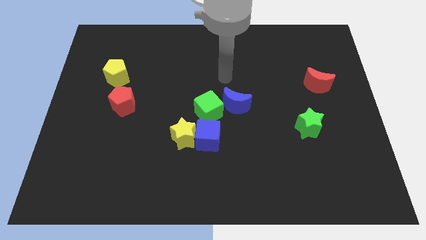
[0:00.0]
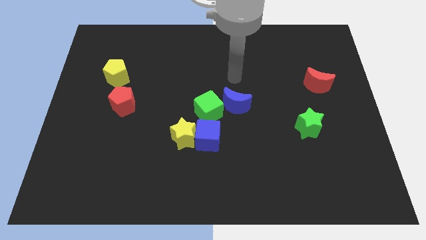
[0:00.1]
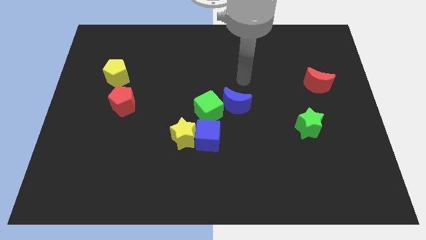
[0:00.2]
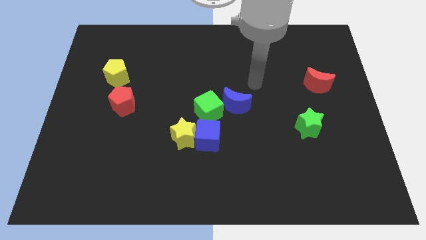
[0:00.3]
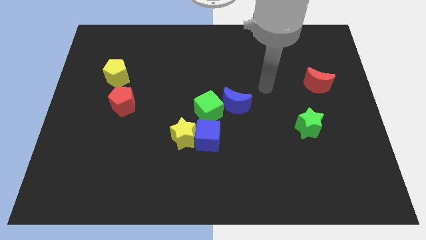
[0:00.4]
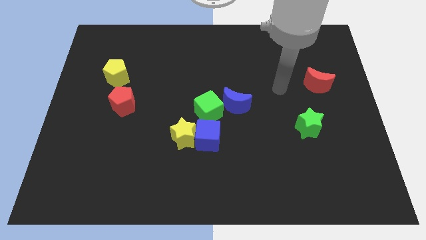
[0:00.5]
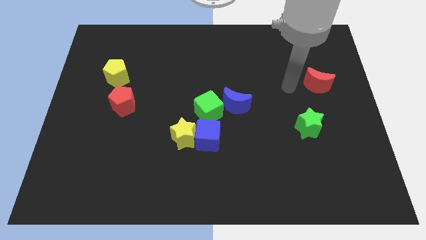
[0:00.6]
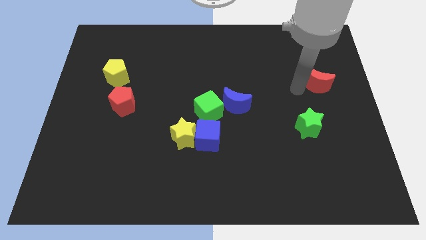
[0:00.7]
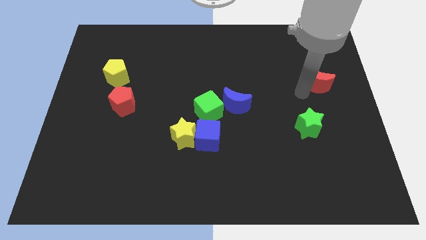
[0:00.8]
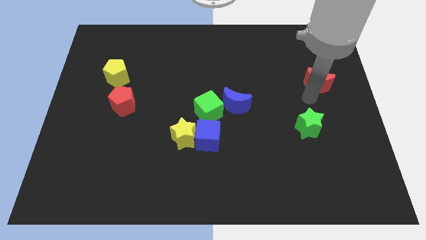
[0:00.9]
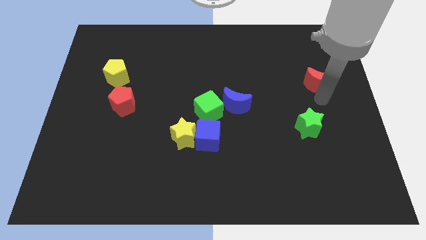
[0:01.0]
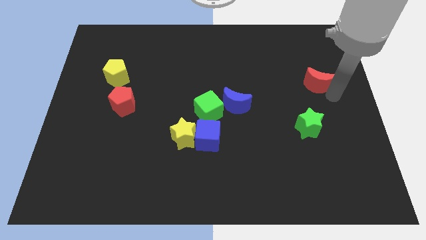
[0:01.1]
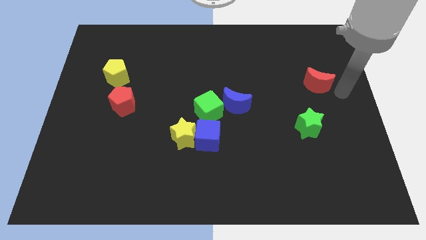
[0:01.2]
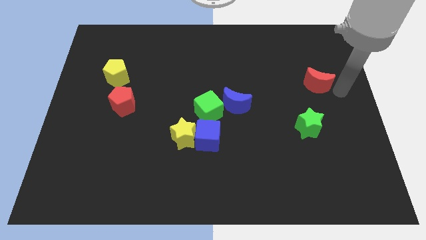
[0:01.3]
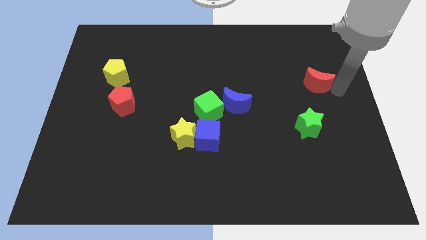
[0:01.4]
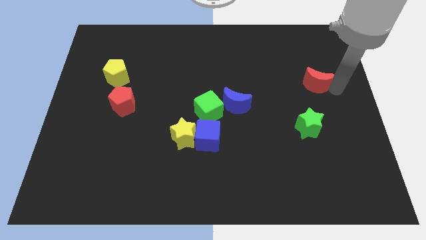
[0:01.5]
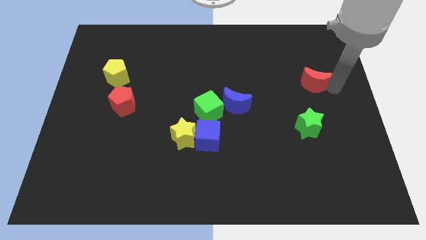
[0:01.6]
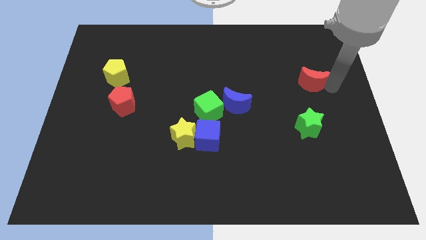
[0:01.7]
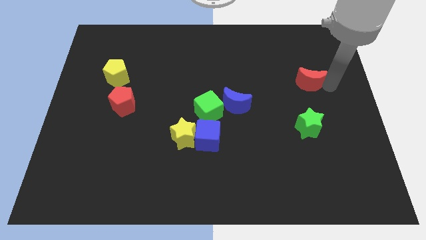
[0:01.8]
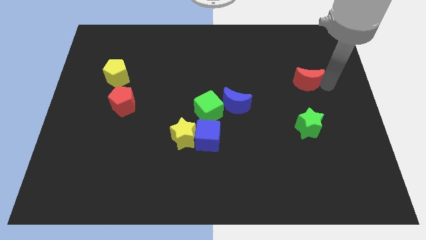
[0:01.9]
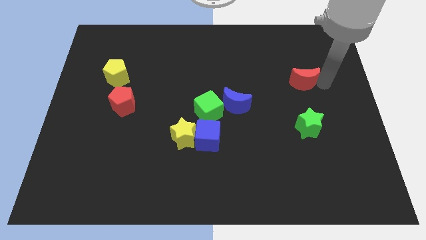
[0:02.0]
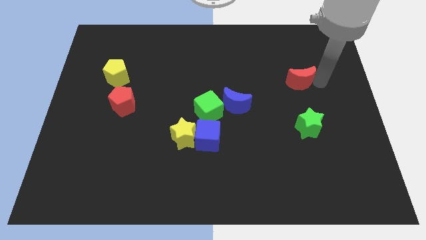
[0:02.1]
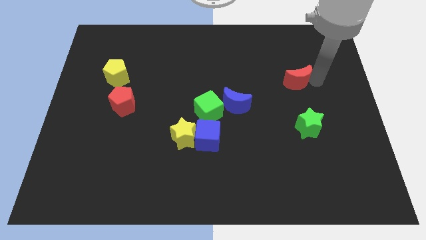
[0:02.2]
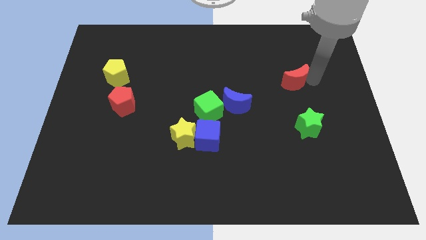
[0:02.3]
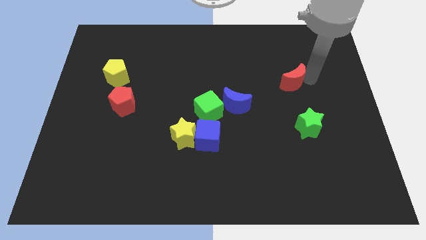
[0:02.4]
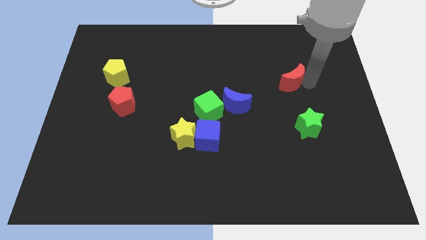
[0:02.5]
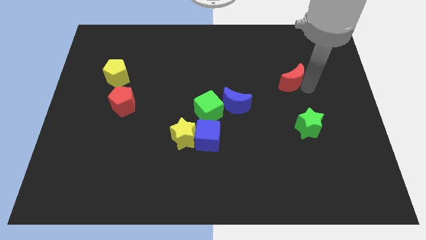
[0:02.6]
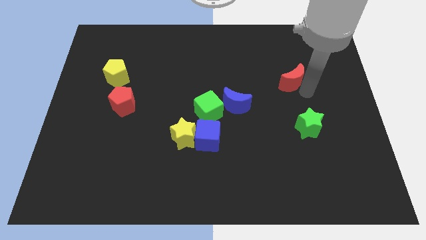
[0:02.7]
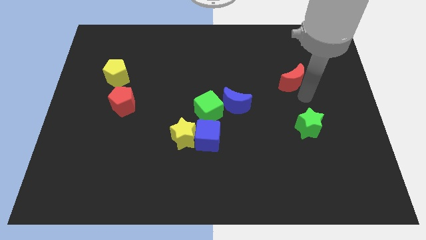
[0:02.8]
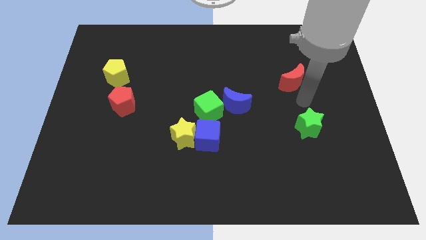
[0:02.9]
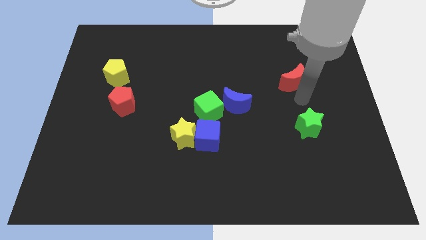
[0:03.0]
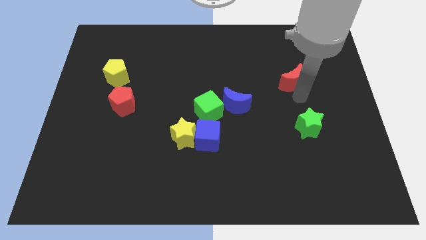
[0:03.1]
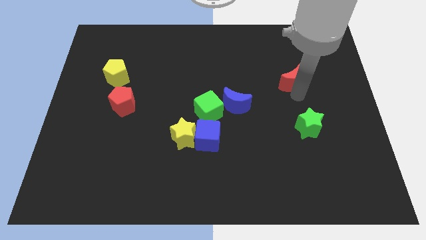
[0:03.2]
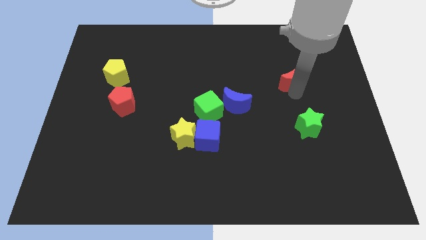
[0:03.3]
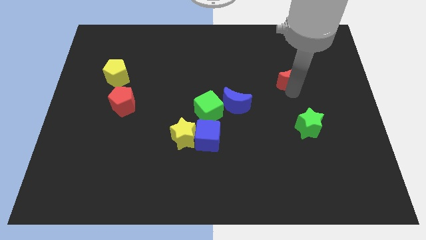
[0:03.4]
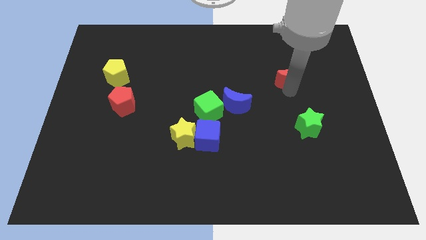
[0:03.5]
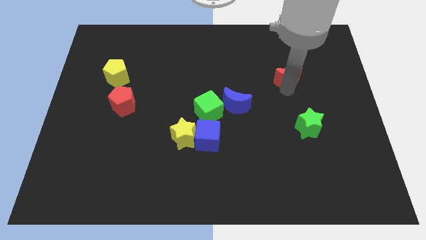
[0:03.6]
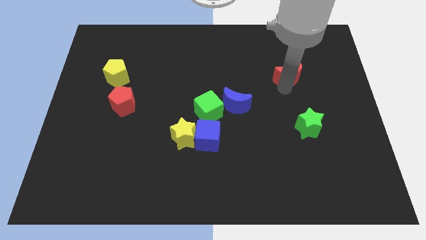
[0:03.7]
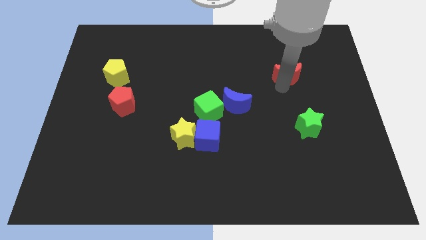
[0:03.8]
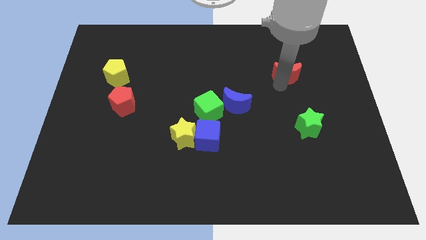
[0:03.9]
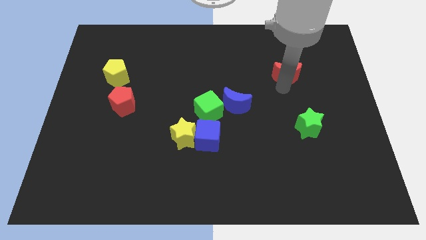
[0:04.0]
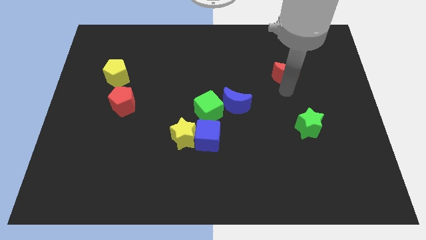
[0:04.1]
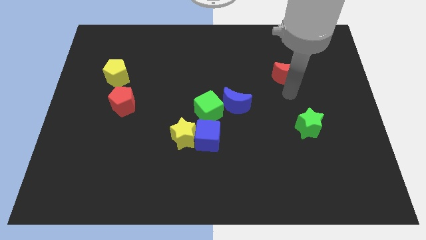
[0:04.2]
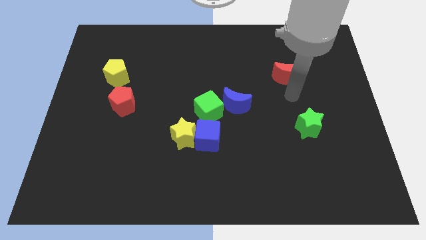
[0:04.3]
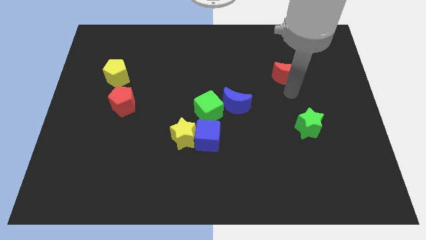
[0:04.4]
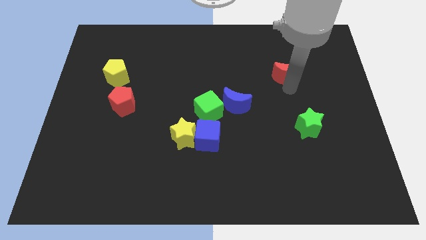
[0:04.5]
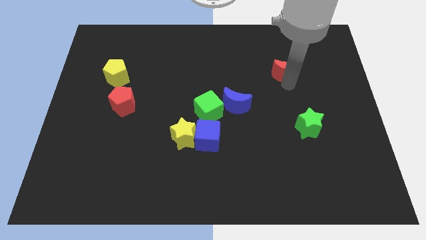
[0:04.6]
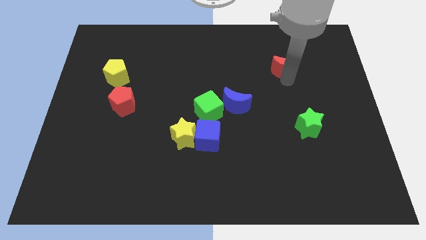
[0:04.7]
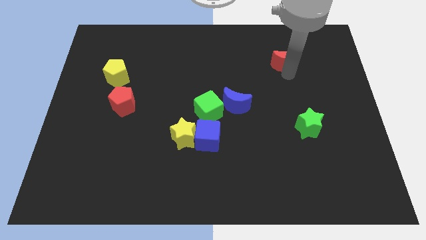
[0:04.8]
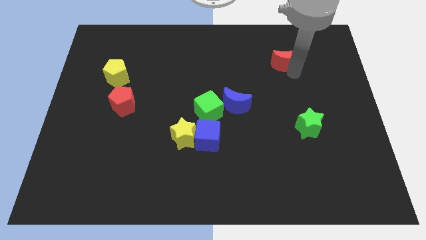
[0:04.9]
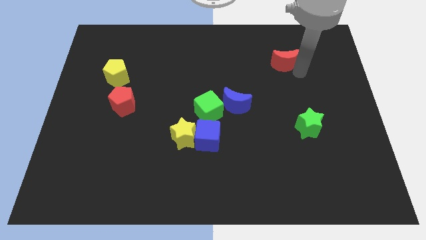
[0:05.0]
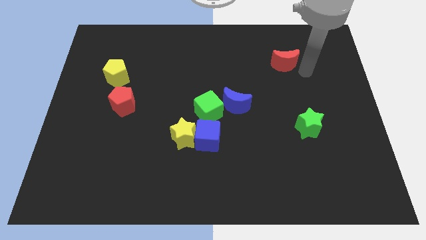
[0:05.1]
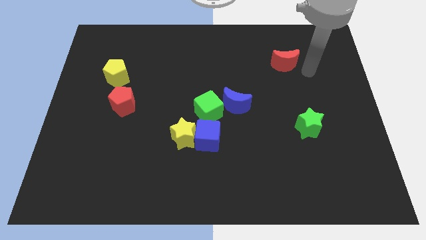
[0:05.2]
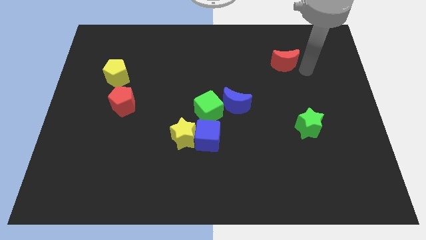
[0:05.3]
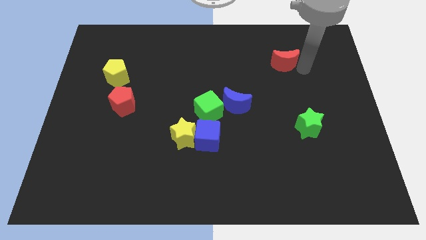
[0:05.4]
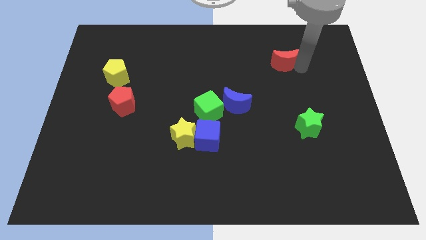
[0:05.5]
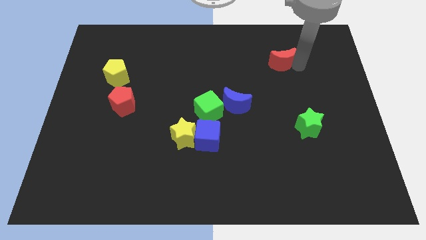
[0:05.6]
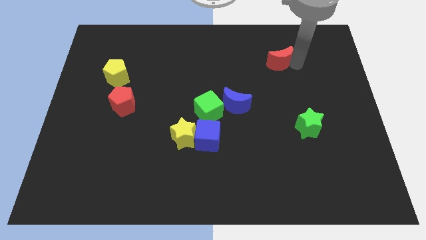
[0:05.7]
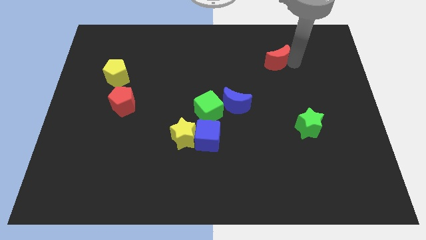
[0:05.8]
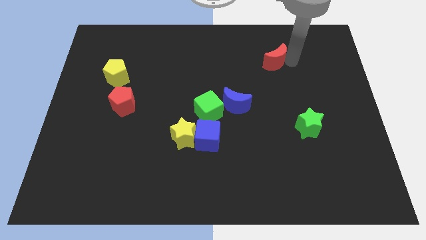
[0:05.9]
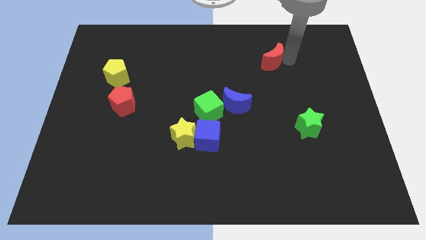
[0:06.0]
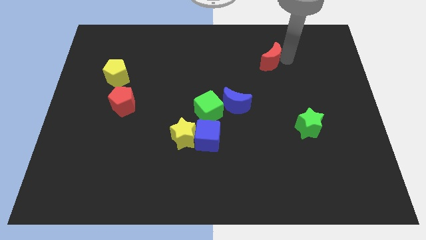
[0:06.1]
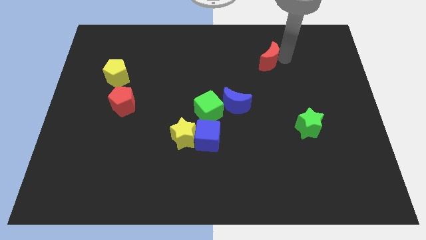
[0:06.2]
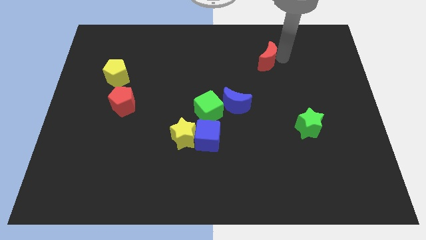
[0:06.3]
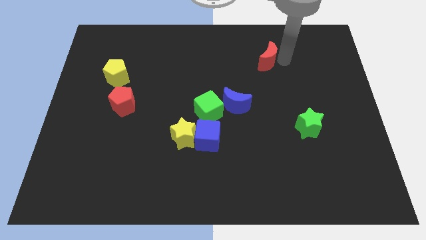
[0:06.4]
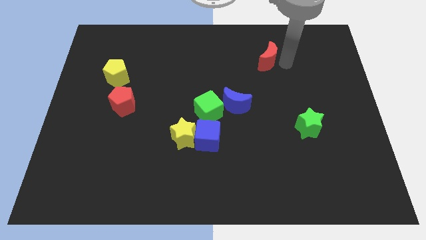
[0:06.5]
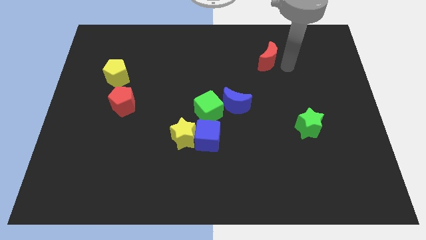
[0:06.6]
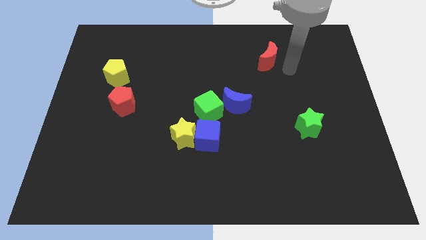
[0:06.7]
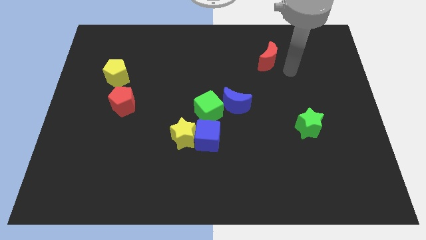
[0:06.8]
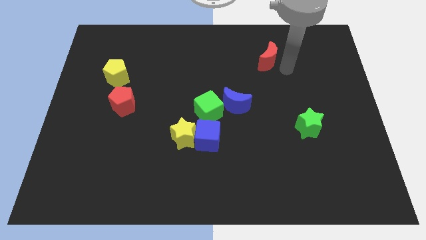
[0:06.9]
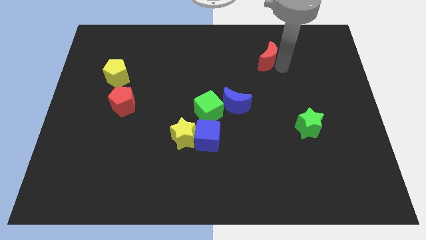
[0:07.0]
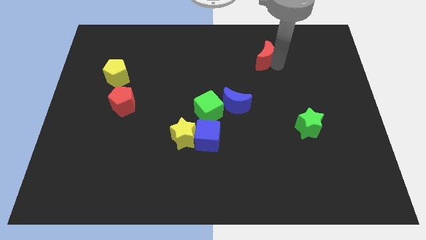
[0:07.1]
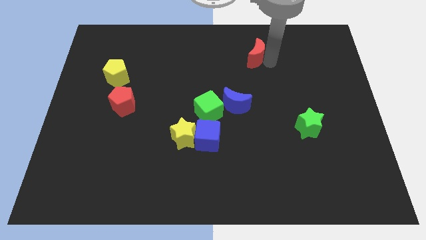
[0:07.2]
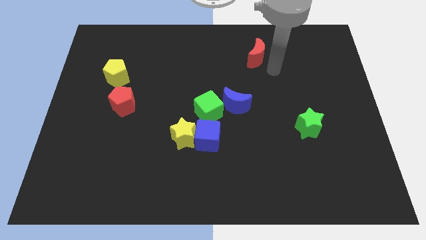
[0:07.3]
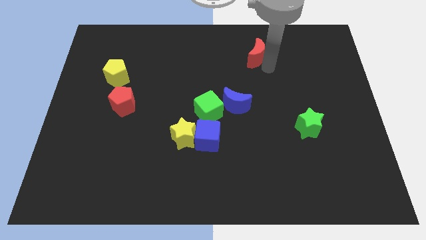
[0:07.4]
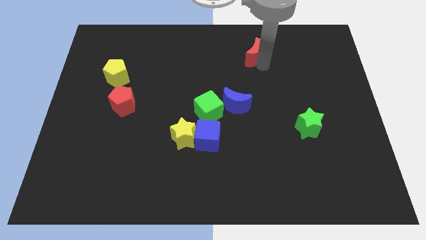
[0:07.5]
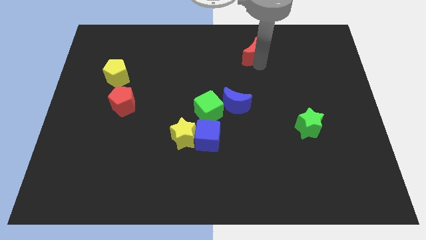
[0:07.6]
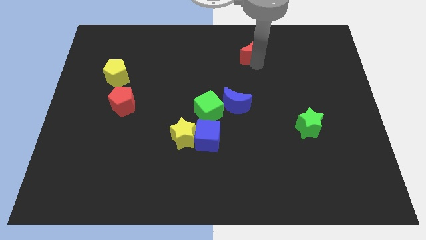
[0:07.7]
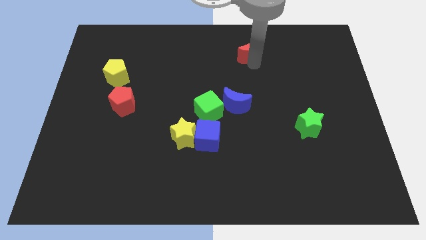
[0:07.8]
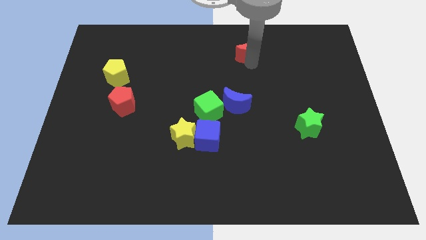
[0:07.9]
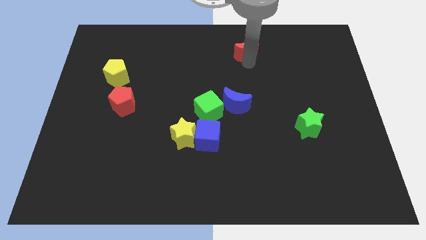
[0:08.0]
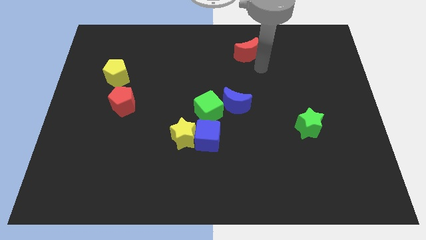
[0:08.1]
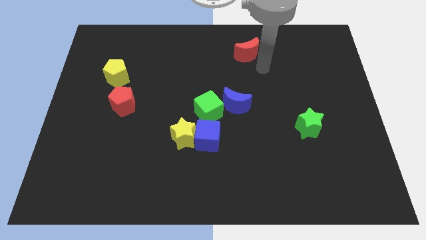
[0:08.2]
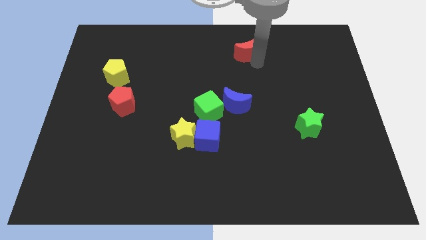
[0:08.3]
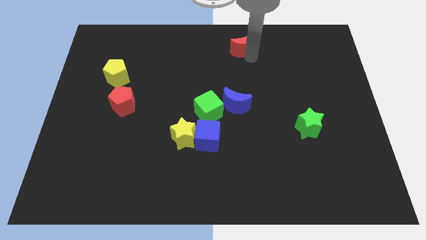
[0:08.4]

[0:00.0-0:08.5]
move the red moon to the top
